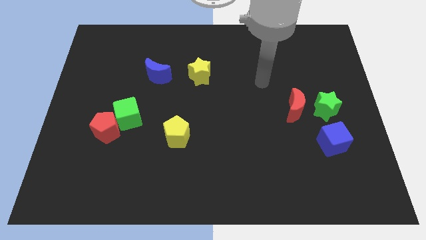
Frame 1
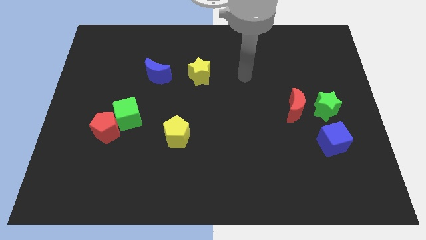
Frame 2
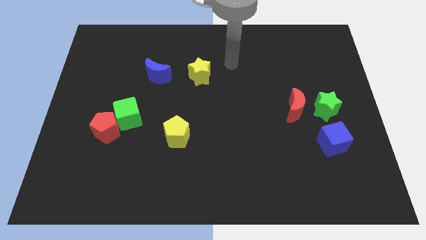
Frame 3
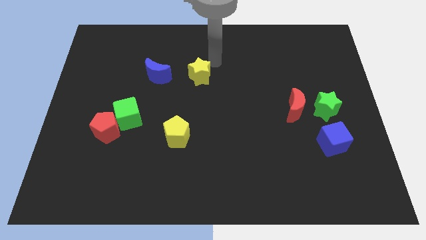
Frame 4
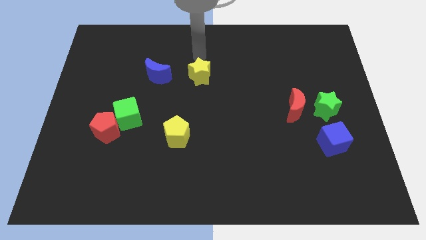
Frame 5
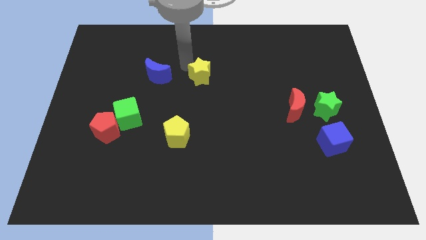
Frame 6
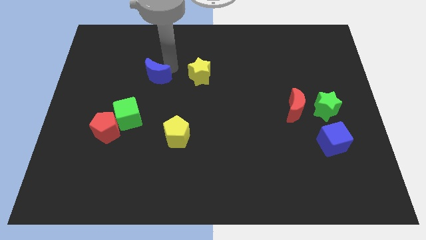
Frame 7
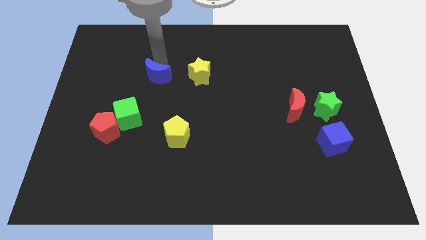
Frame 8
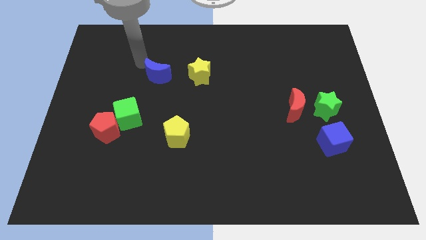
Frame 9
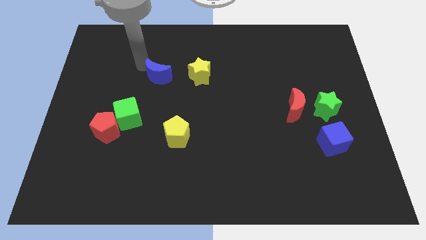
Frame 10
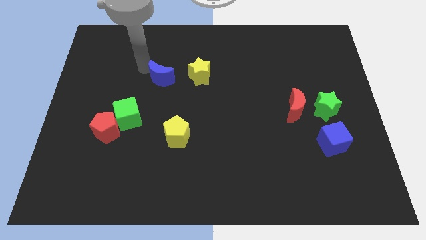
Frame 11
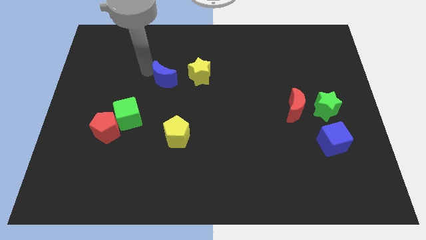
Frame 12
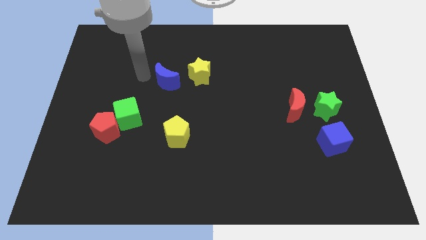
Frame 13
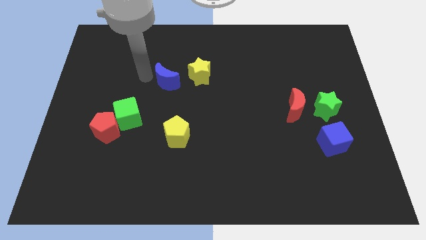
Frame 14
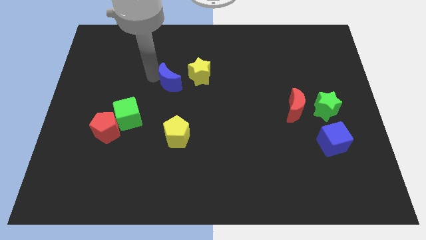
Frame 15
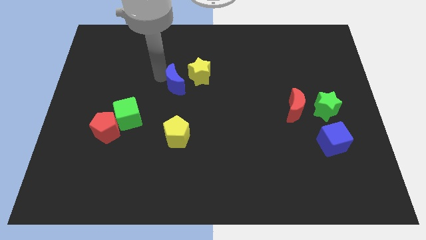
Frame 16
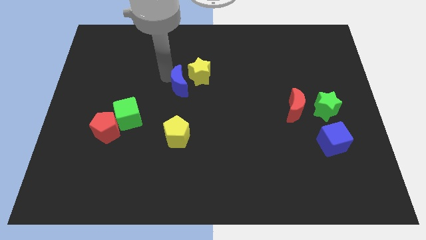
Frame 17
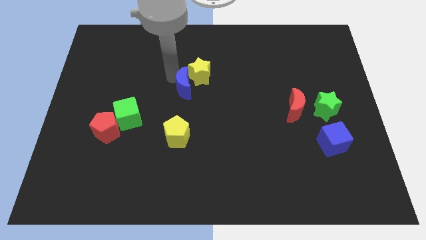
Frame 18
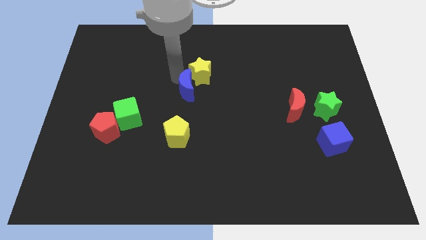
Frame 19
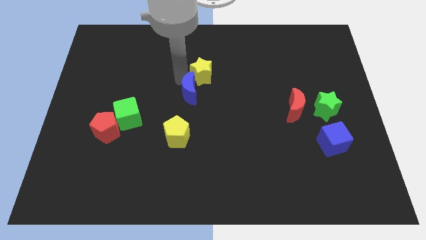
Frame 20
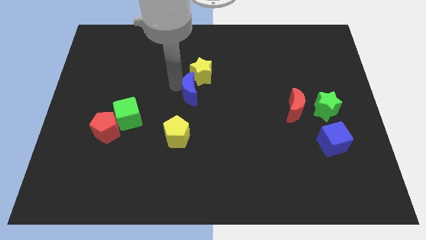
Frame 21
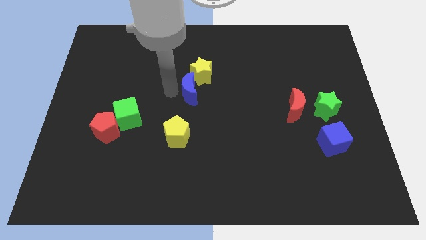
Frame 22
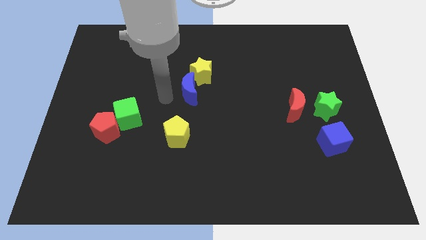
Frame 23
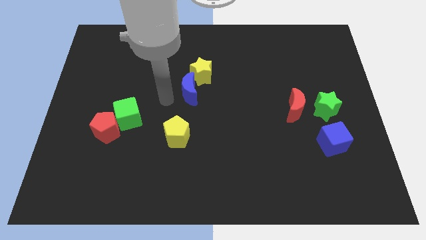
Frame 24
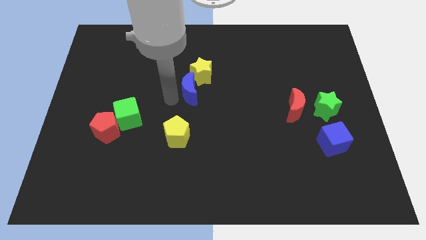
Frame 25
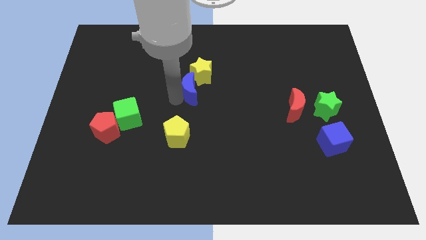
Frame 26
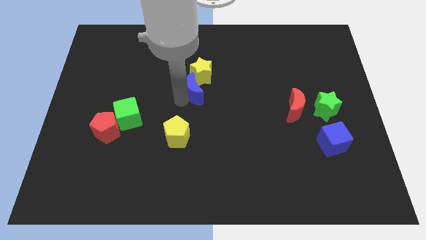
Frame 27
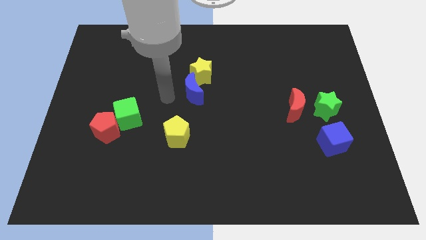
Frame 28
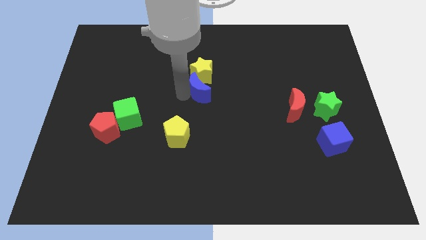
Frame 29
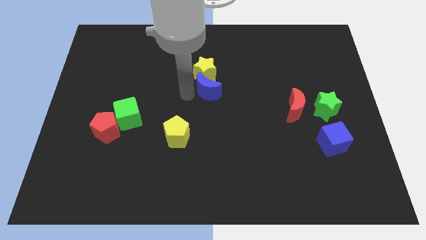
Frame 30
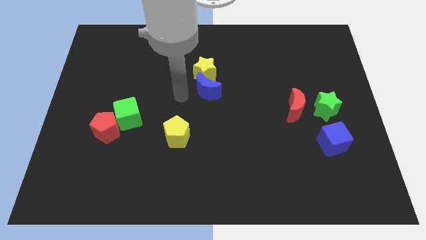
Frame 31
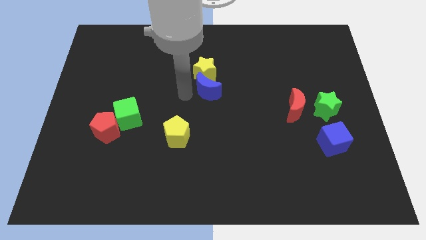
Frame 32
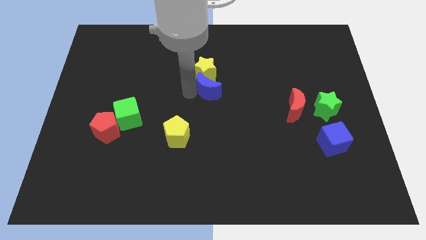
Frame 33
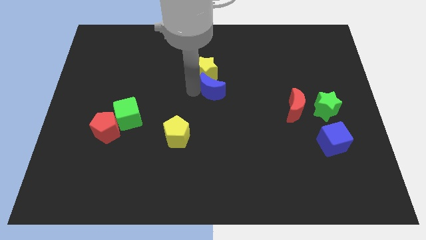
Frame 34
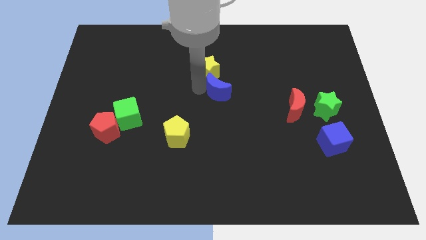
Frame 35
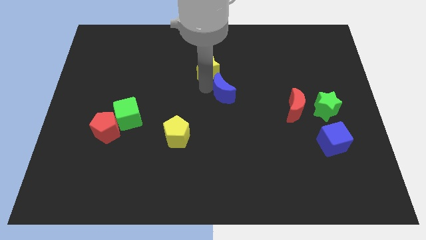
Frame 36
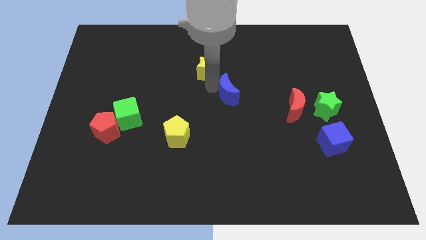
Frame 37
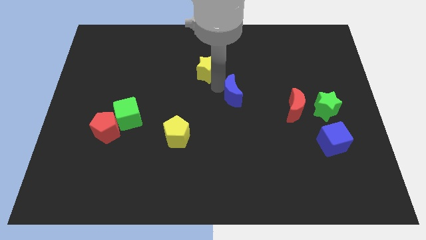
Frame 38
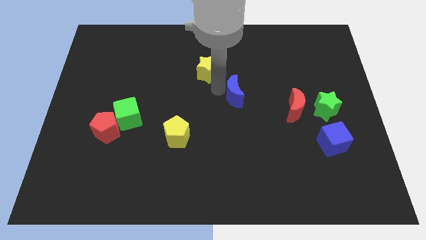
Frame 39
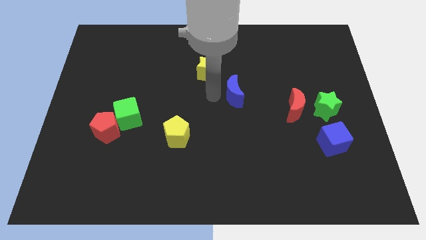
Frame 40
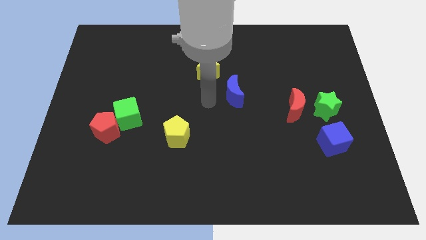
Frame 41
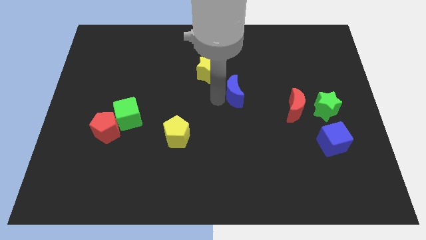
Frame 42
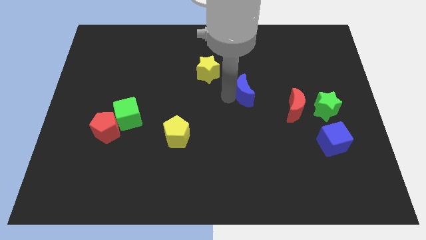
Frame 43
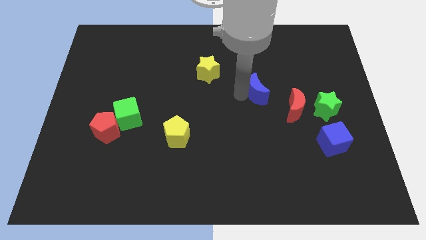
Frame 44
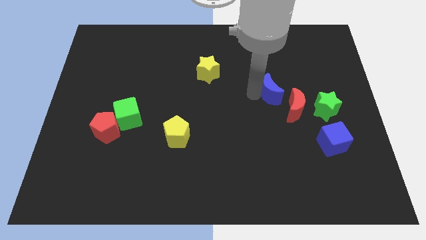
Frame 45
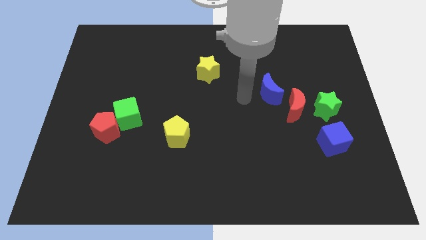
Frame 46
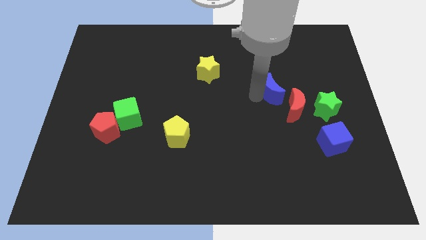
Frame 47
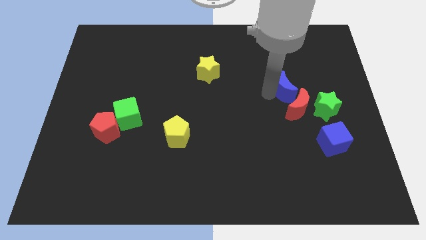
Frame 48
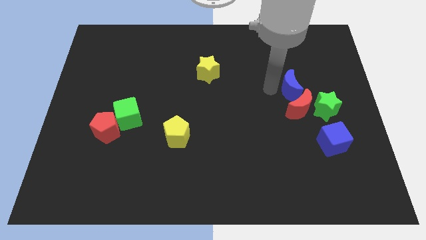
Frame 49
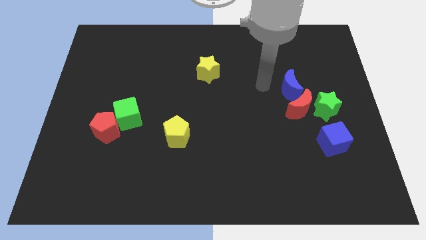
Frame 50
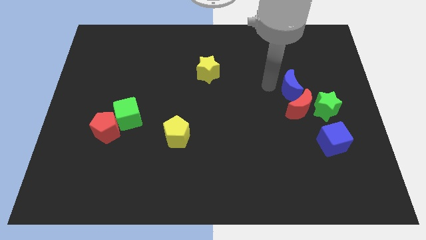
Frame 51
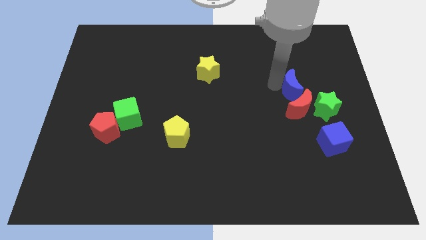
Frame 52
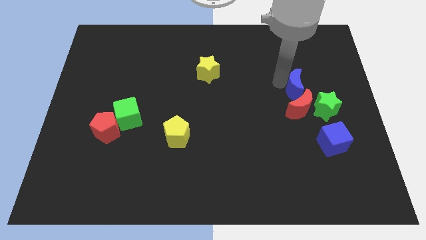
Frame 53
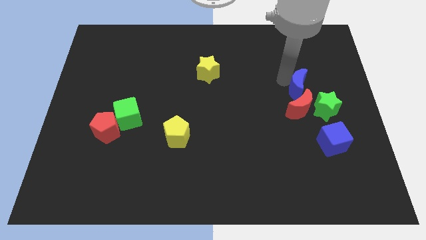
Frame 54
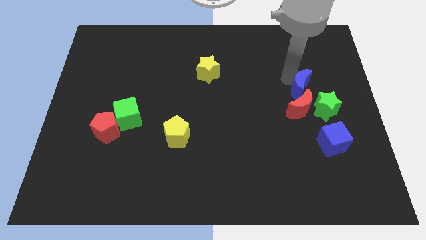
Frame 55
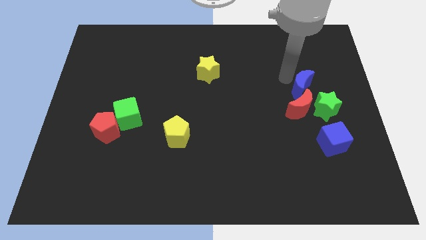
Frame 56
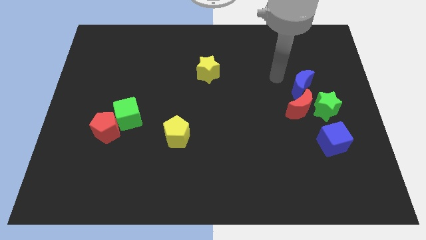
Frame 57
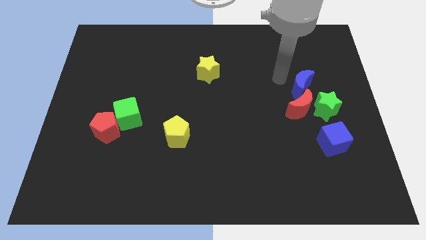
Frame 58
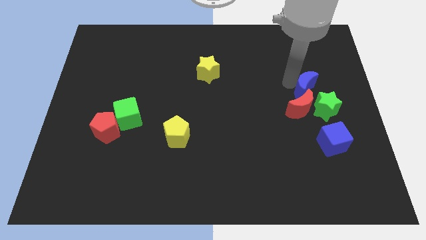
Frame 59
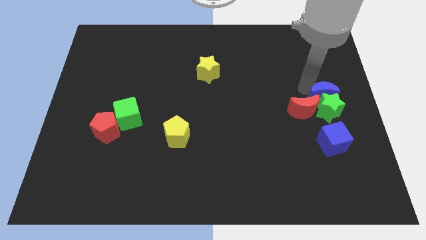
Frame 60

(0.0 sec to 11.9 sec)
put the blue moon to the right side
